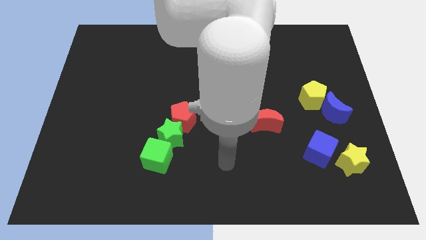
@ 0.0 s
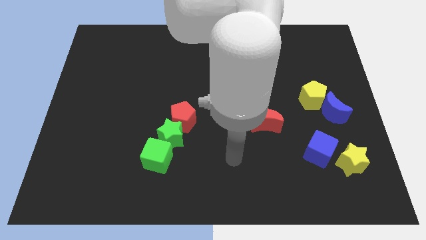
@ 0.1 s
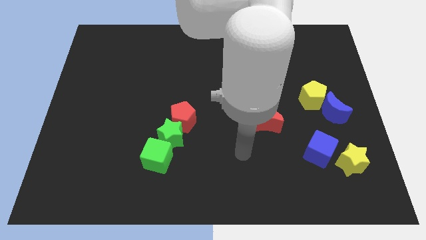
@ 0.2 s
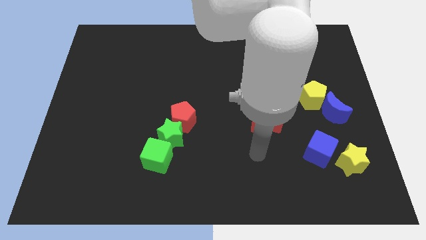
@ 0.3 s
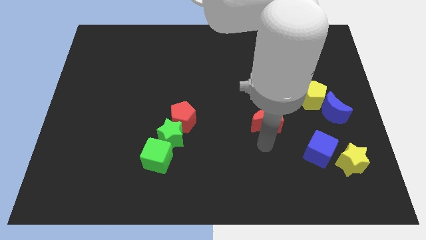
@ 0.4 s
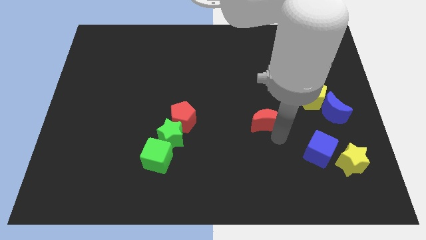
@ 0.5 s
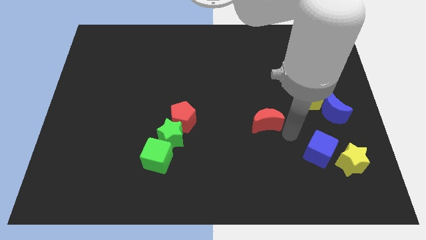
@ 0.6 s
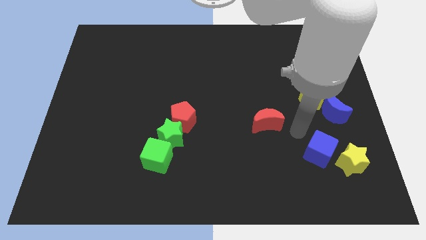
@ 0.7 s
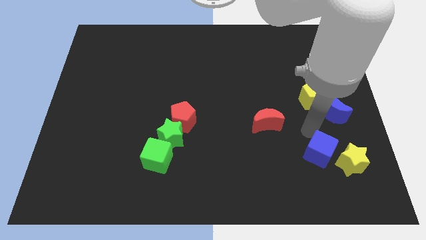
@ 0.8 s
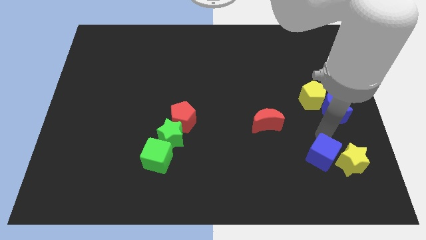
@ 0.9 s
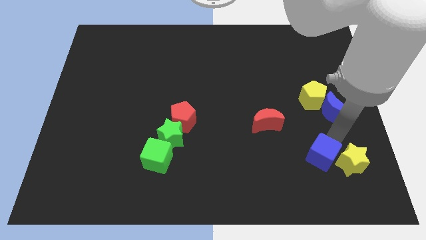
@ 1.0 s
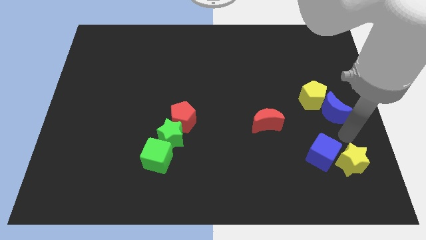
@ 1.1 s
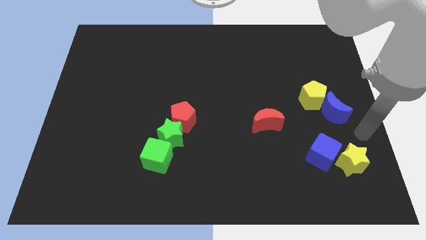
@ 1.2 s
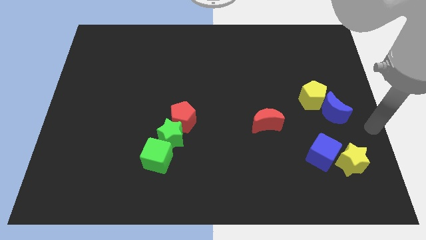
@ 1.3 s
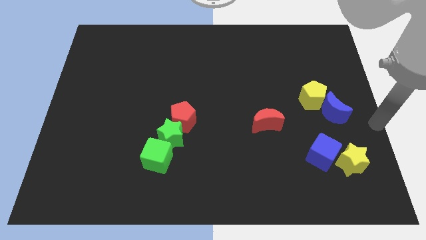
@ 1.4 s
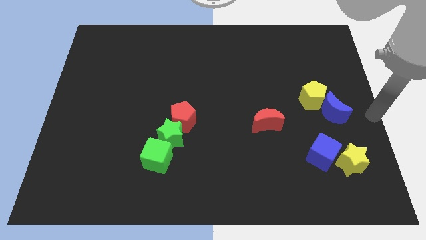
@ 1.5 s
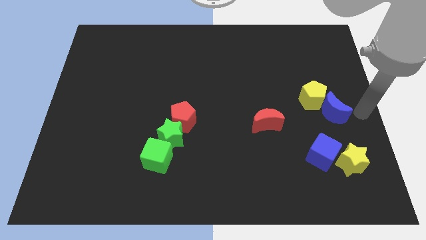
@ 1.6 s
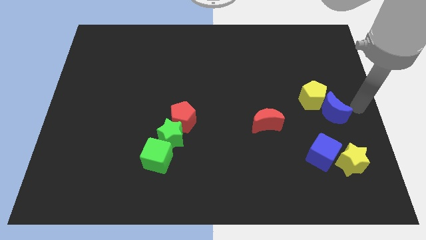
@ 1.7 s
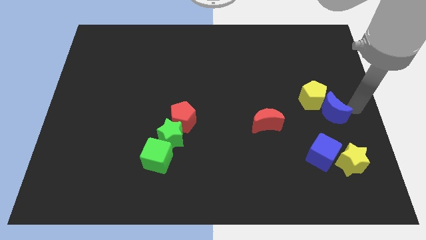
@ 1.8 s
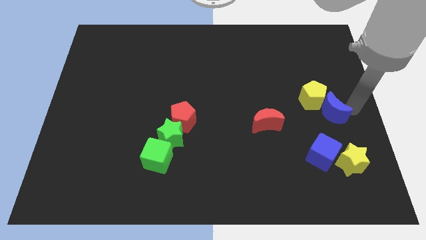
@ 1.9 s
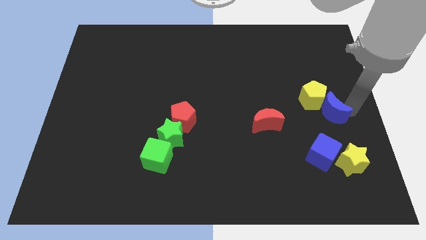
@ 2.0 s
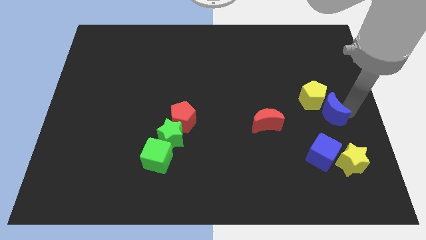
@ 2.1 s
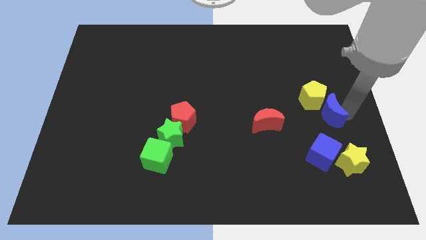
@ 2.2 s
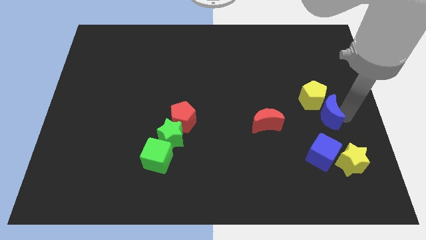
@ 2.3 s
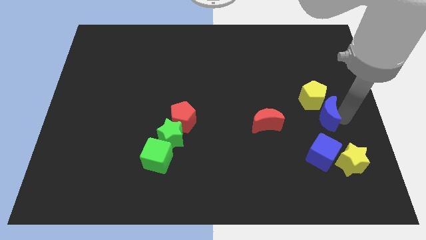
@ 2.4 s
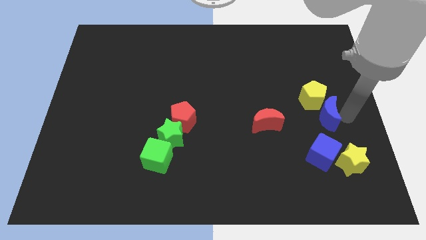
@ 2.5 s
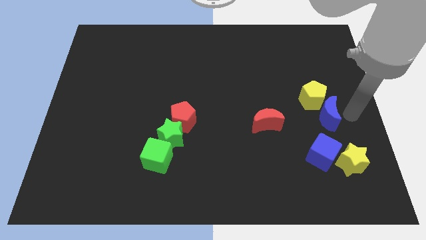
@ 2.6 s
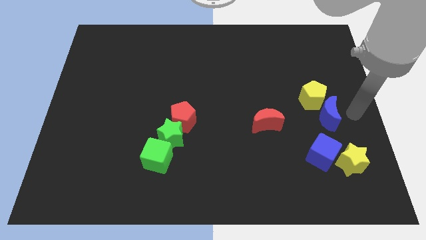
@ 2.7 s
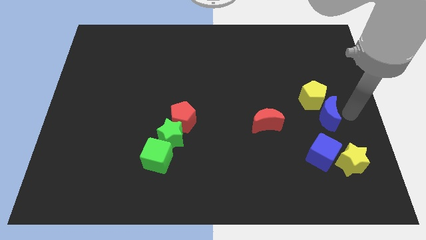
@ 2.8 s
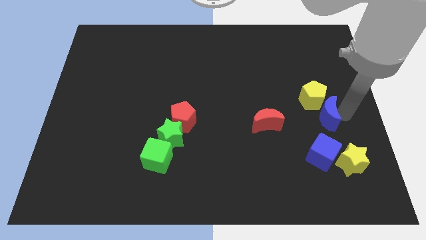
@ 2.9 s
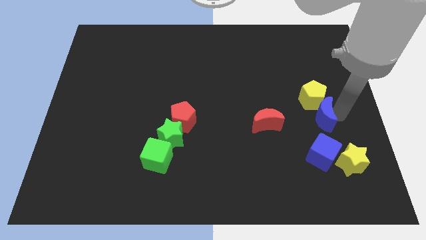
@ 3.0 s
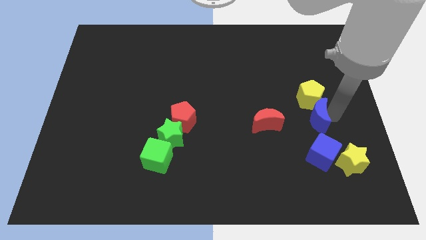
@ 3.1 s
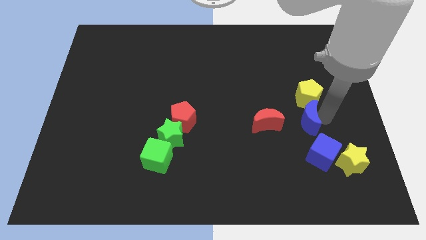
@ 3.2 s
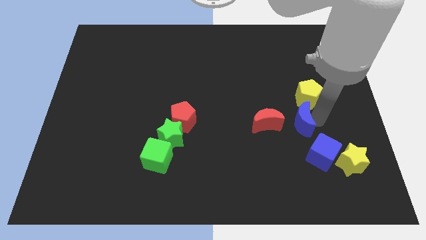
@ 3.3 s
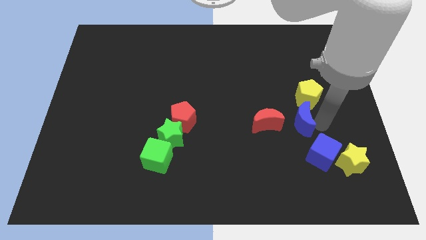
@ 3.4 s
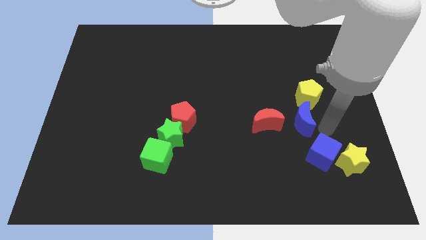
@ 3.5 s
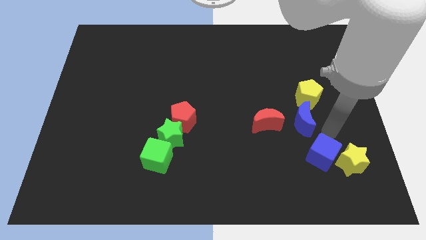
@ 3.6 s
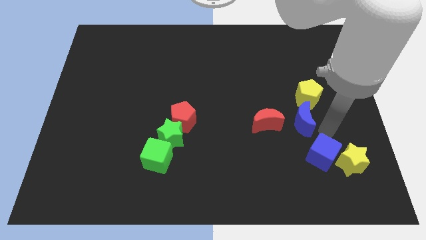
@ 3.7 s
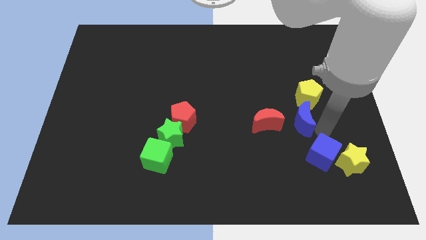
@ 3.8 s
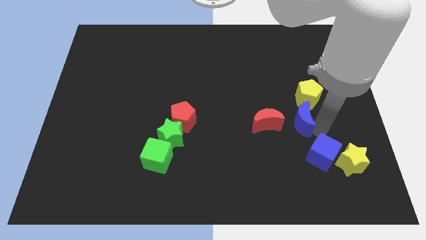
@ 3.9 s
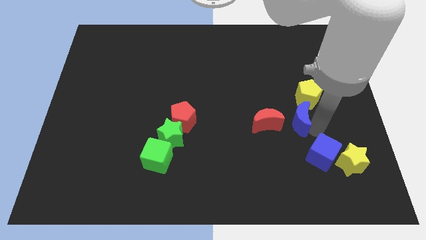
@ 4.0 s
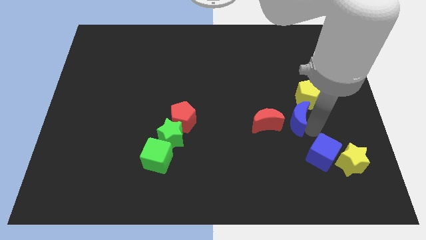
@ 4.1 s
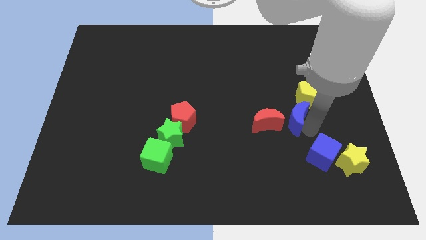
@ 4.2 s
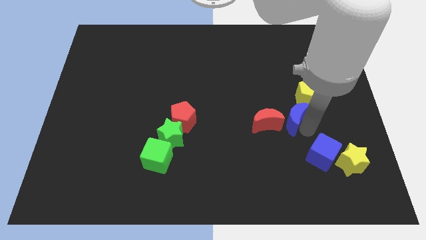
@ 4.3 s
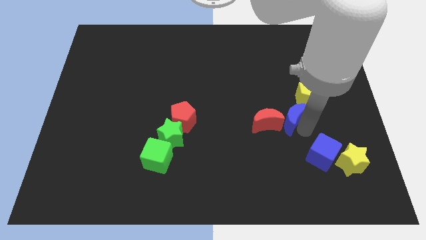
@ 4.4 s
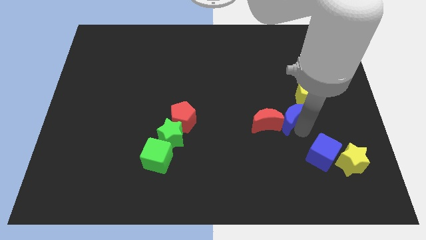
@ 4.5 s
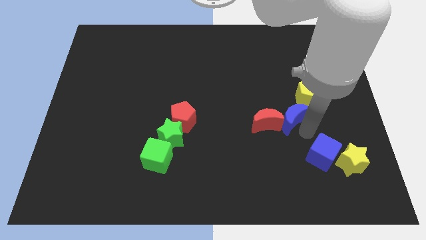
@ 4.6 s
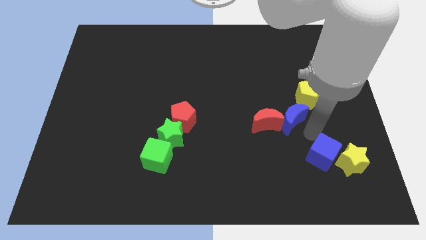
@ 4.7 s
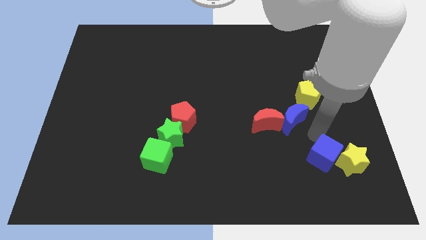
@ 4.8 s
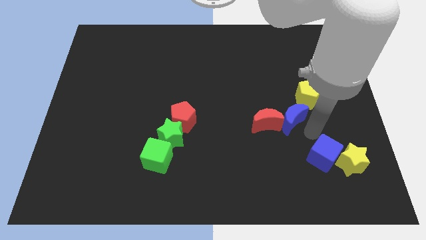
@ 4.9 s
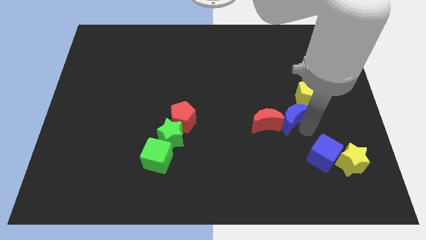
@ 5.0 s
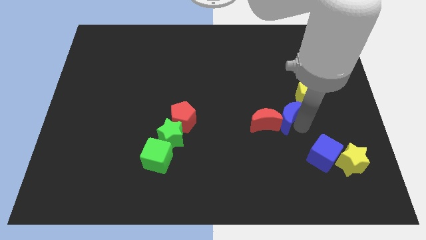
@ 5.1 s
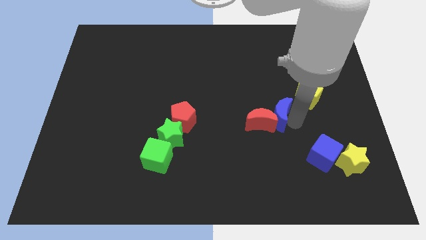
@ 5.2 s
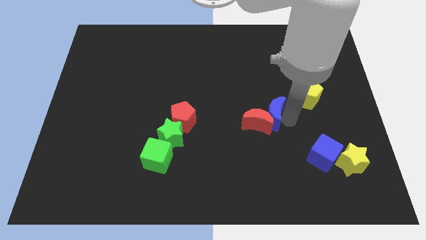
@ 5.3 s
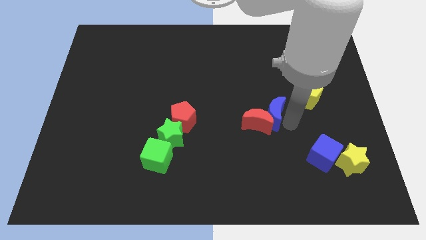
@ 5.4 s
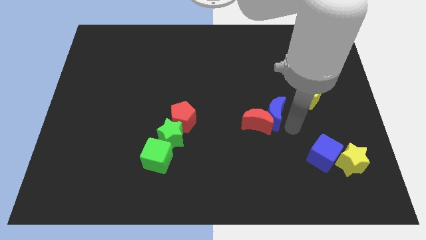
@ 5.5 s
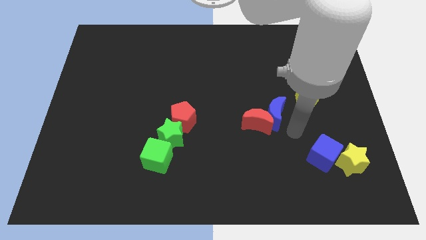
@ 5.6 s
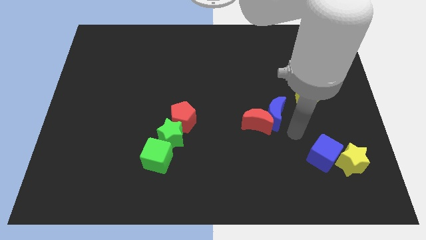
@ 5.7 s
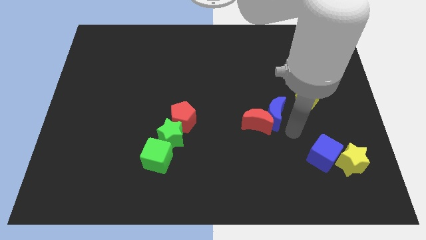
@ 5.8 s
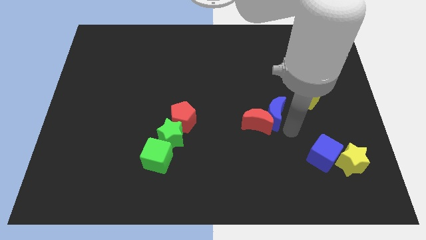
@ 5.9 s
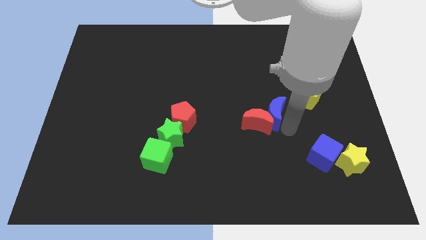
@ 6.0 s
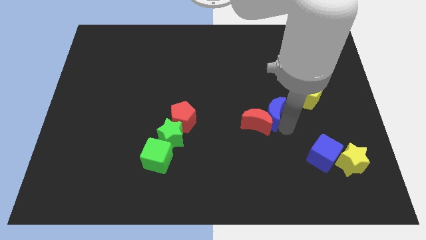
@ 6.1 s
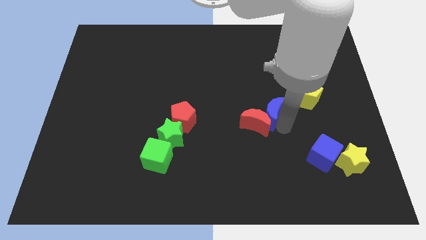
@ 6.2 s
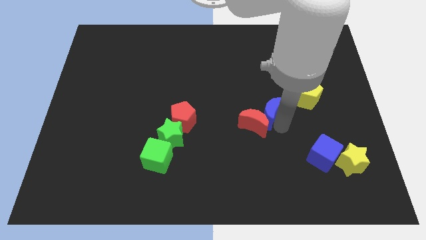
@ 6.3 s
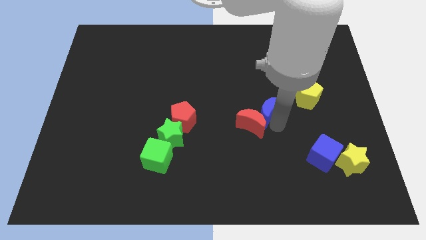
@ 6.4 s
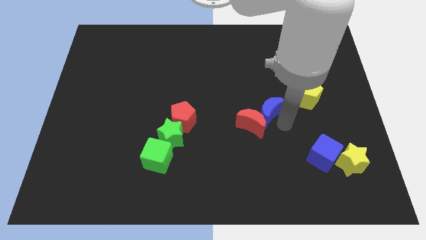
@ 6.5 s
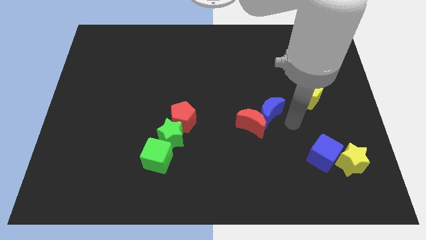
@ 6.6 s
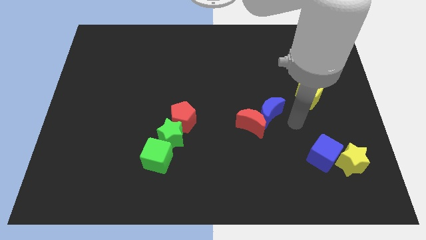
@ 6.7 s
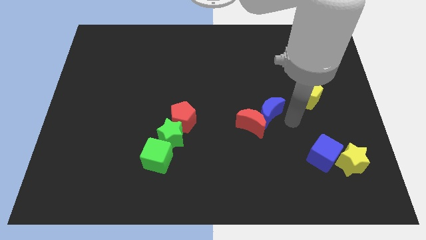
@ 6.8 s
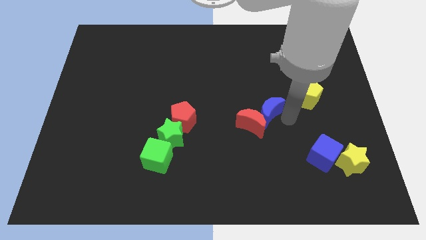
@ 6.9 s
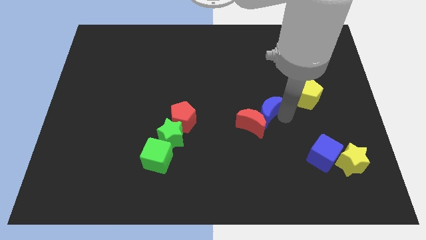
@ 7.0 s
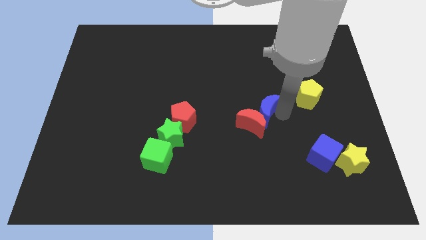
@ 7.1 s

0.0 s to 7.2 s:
slide the blue moon to the middle of the board

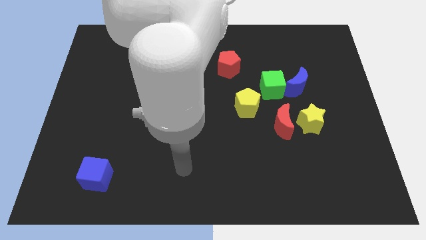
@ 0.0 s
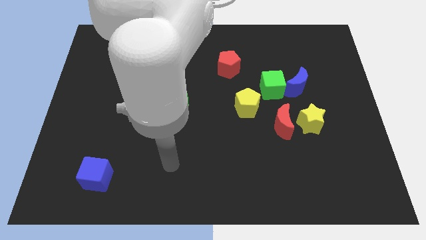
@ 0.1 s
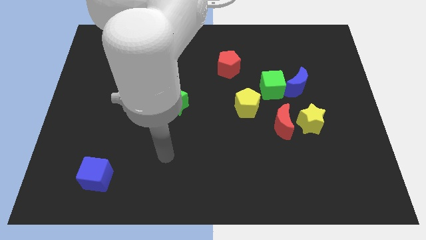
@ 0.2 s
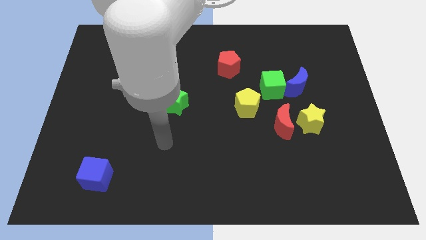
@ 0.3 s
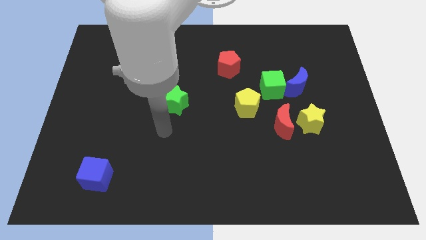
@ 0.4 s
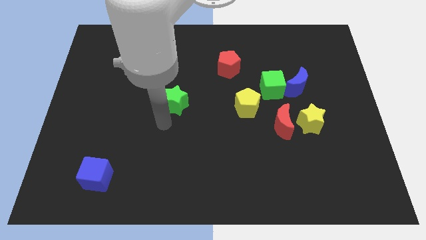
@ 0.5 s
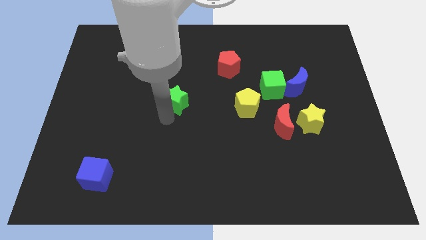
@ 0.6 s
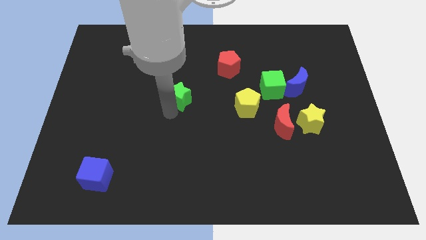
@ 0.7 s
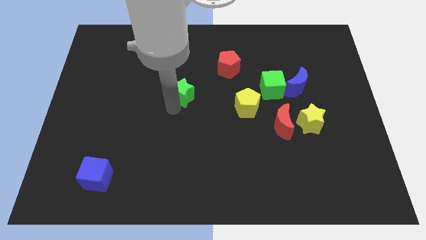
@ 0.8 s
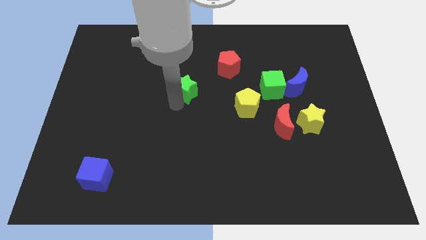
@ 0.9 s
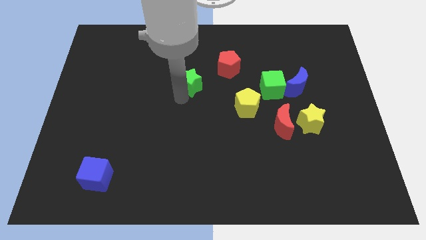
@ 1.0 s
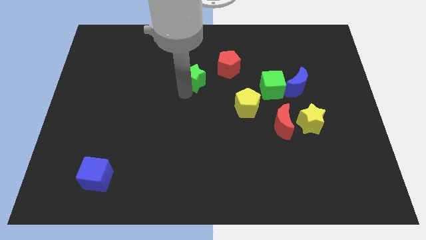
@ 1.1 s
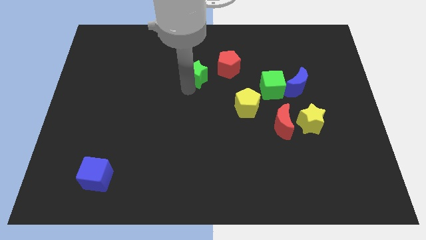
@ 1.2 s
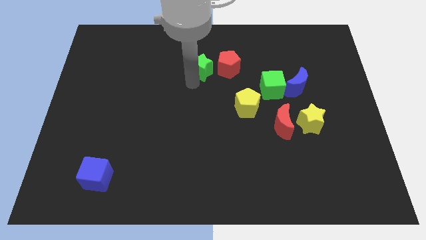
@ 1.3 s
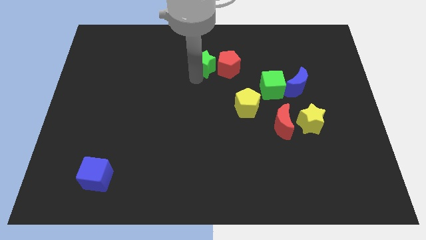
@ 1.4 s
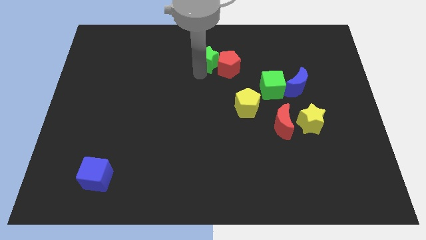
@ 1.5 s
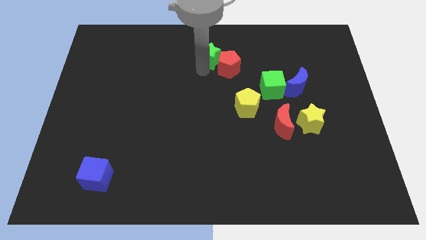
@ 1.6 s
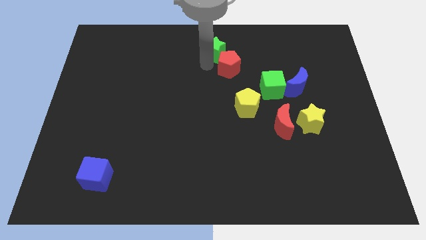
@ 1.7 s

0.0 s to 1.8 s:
slide the green star to the top
